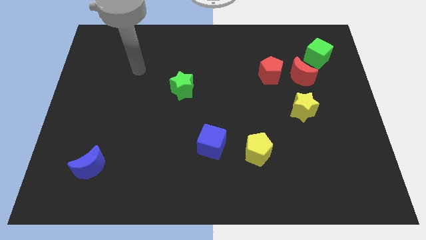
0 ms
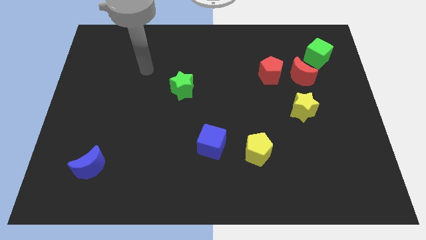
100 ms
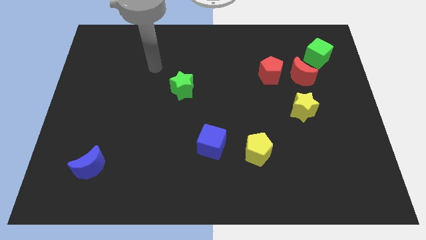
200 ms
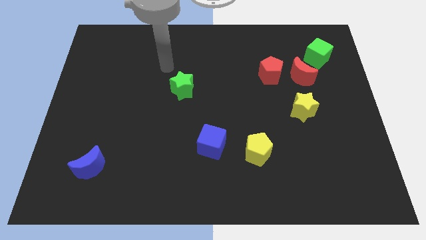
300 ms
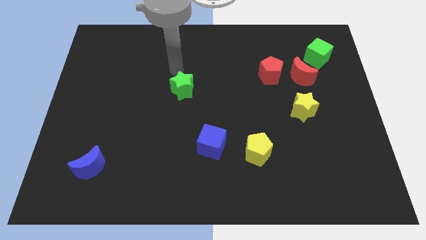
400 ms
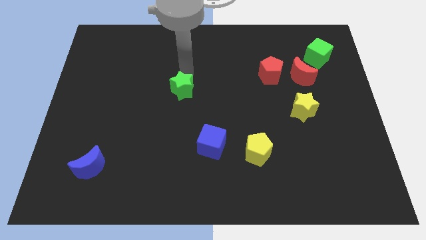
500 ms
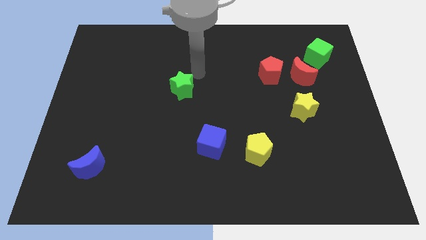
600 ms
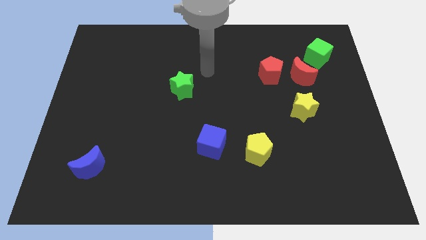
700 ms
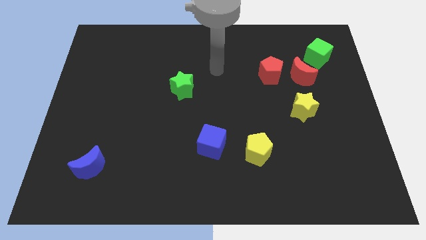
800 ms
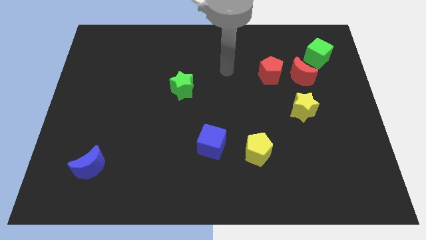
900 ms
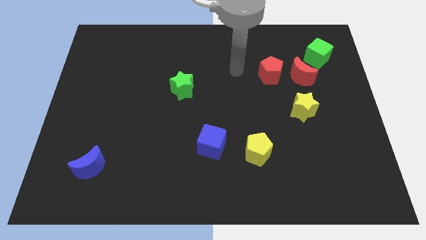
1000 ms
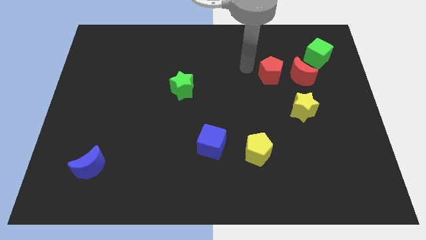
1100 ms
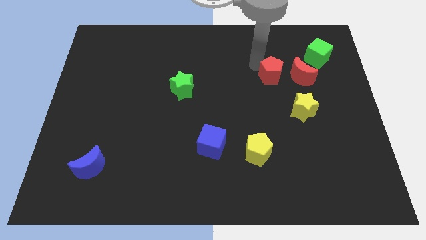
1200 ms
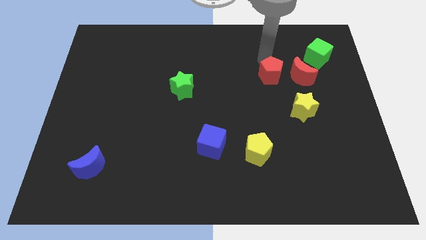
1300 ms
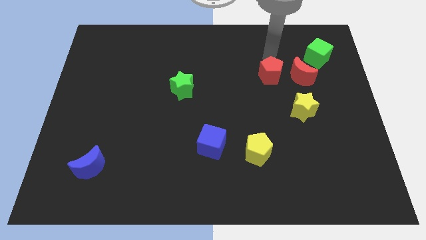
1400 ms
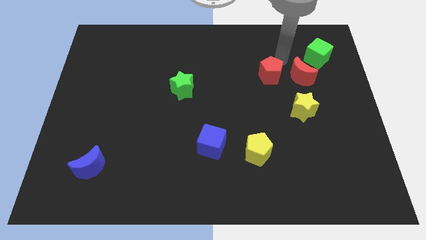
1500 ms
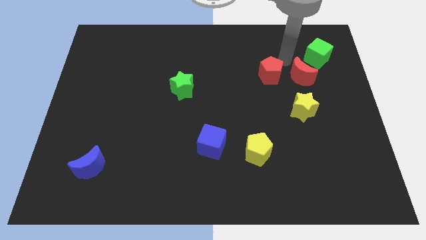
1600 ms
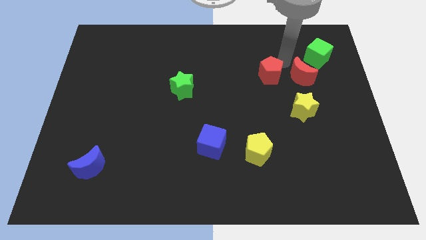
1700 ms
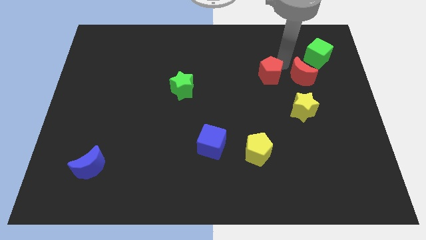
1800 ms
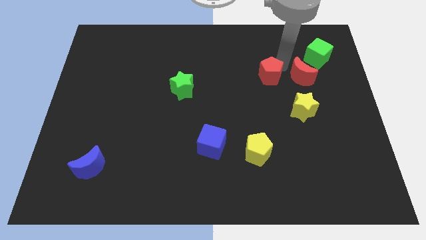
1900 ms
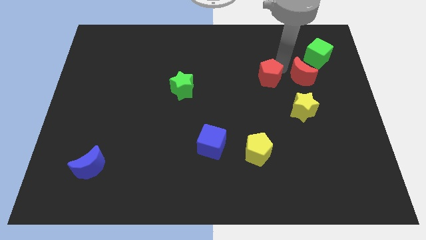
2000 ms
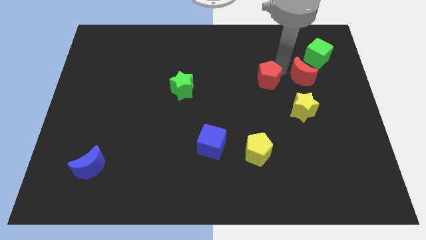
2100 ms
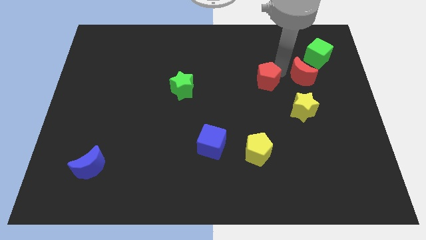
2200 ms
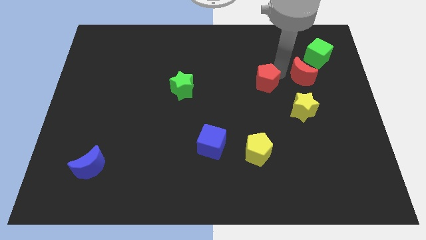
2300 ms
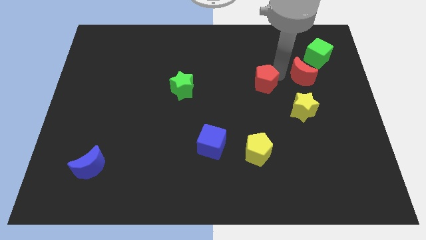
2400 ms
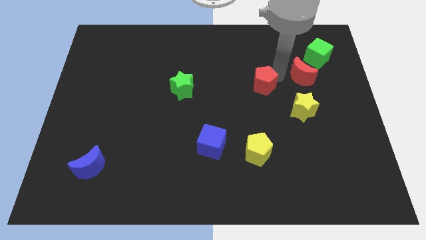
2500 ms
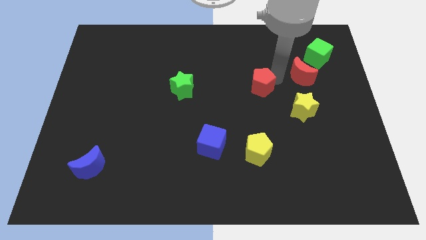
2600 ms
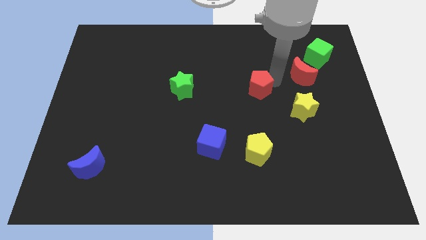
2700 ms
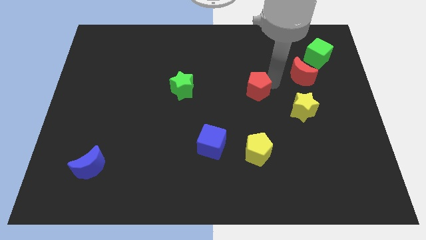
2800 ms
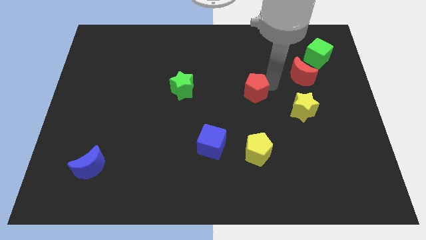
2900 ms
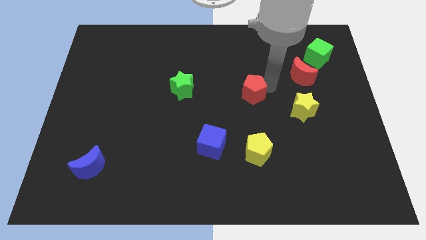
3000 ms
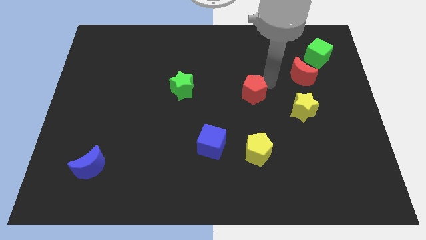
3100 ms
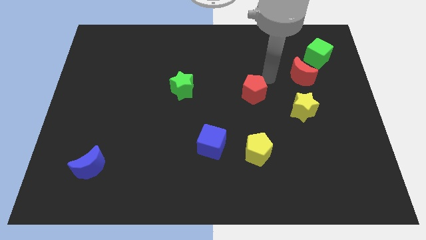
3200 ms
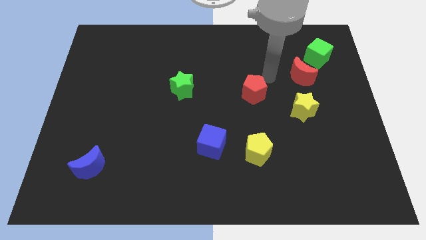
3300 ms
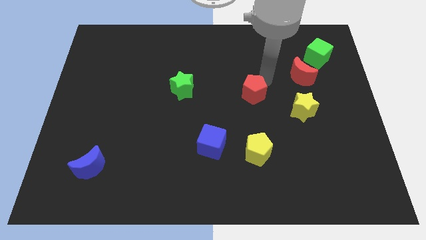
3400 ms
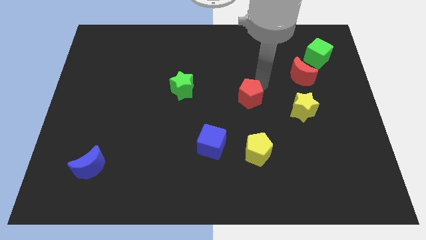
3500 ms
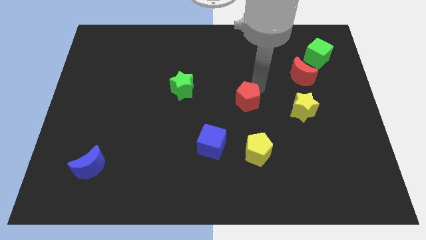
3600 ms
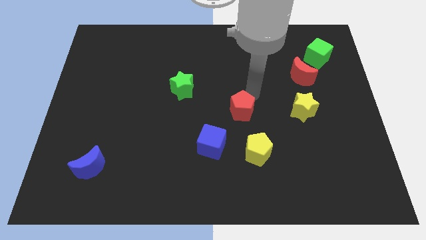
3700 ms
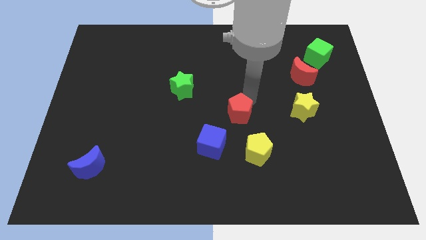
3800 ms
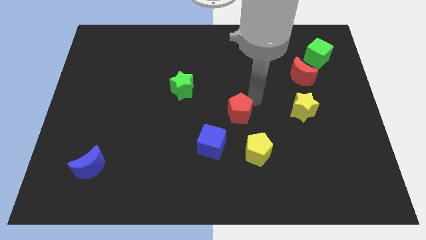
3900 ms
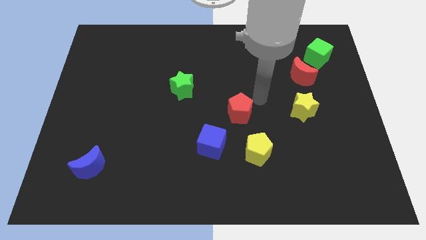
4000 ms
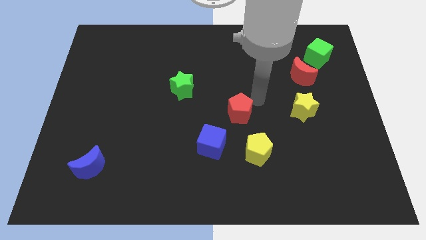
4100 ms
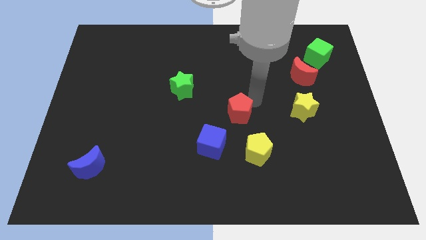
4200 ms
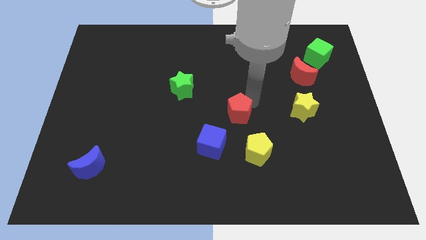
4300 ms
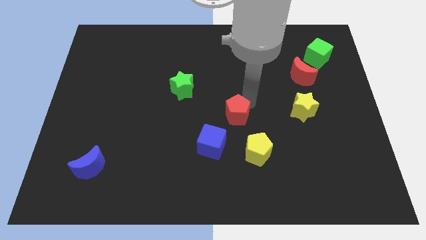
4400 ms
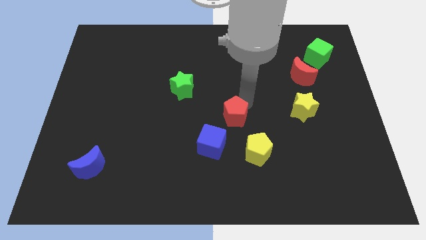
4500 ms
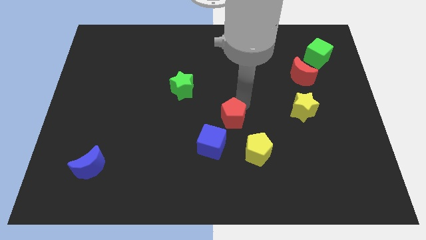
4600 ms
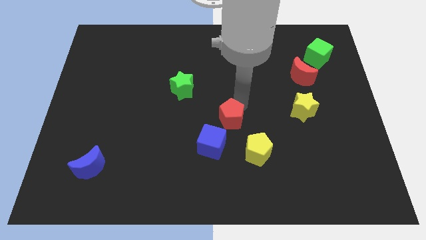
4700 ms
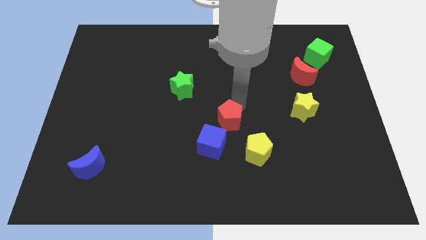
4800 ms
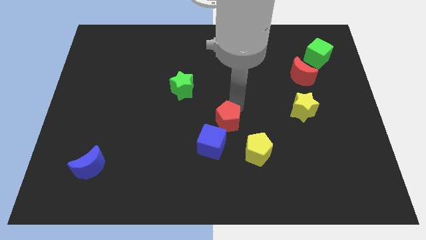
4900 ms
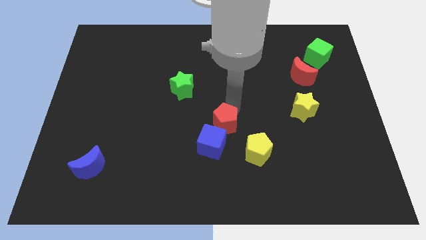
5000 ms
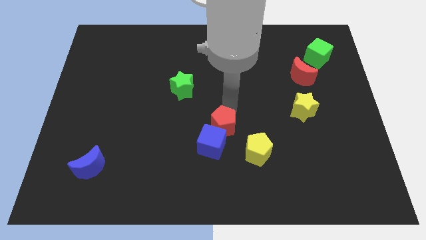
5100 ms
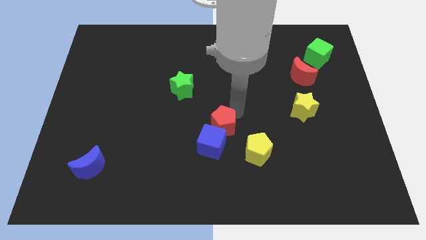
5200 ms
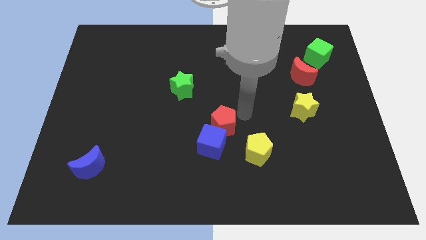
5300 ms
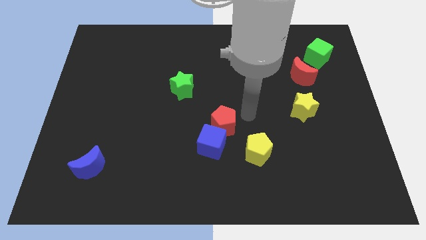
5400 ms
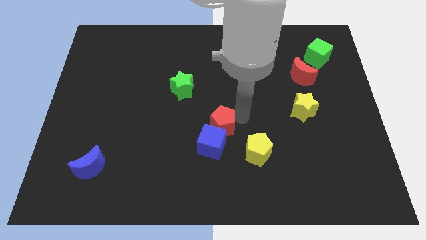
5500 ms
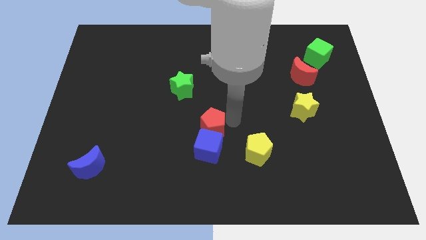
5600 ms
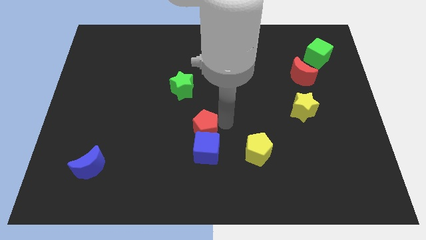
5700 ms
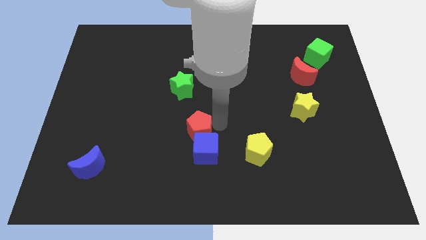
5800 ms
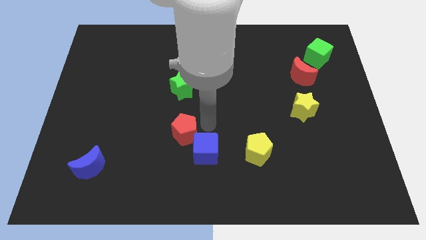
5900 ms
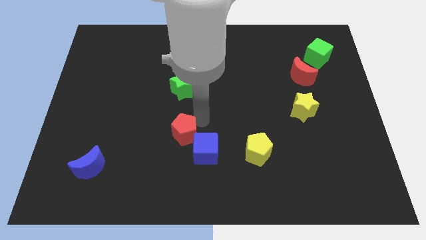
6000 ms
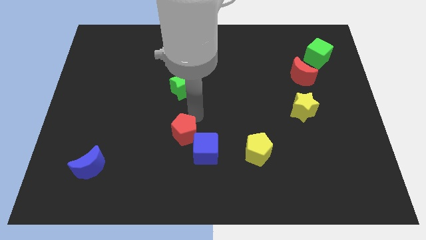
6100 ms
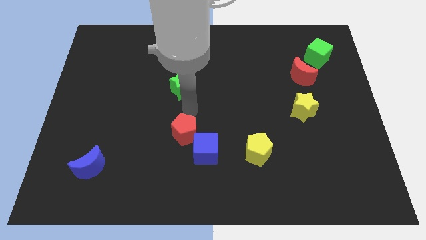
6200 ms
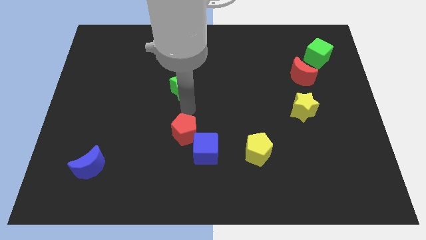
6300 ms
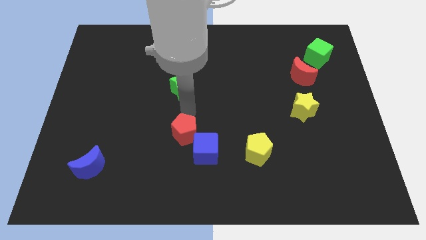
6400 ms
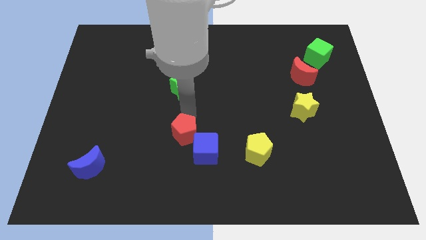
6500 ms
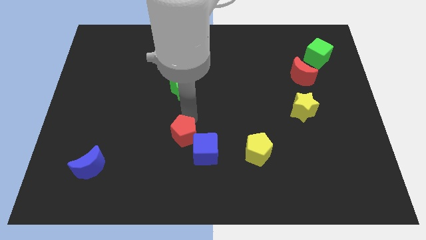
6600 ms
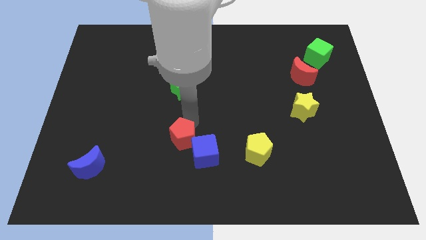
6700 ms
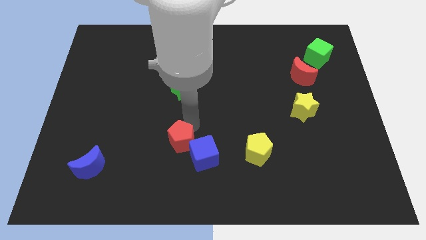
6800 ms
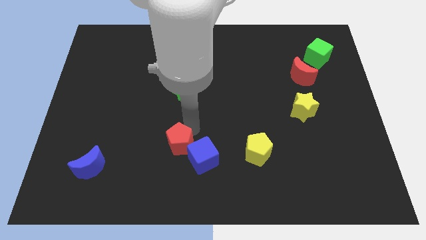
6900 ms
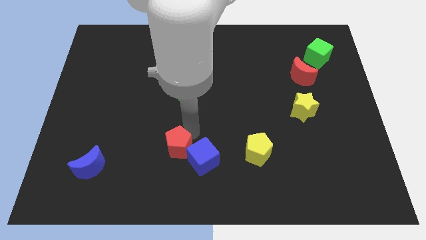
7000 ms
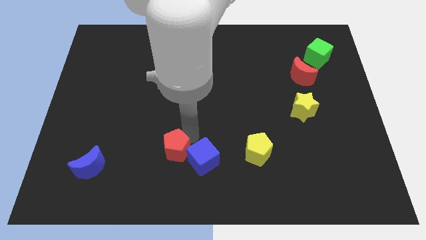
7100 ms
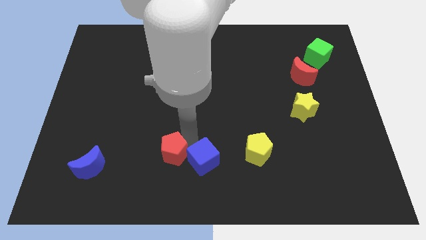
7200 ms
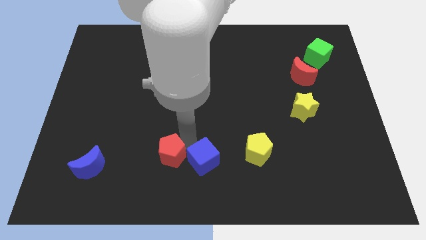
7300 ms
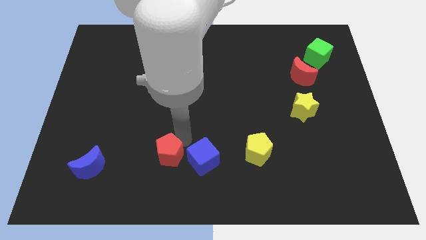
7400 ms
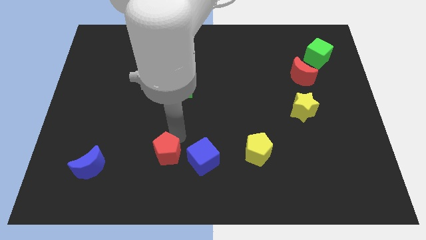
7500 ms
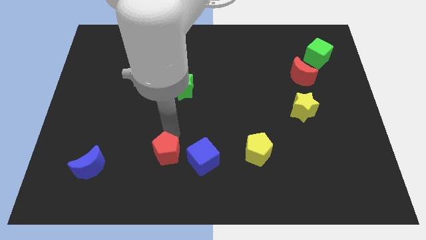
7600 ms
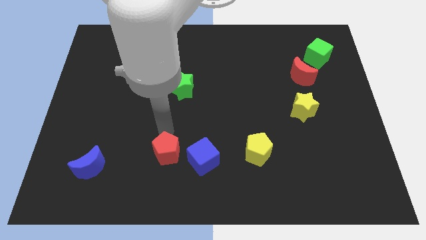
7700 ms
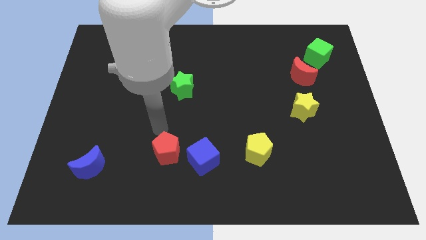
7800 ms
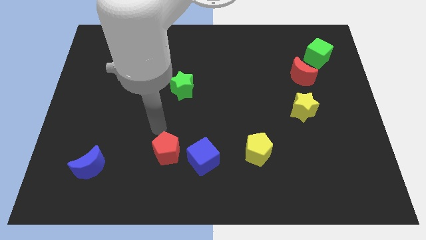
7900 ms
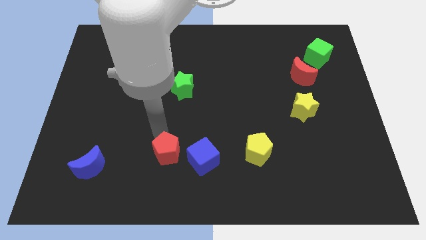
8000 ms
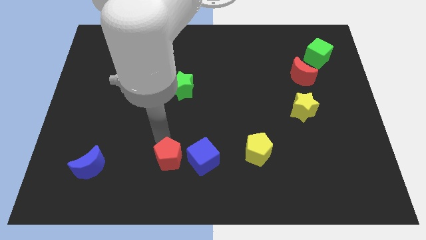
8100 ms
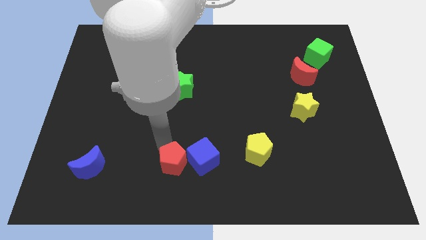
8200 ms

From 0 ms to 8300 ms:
put the red pentagon to the bottom left side of the blue cube
